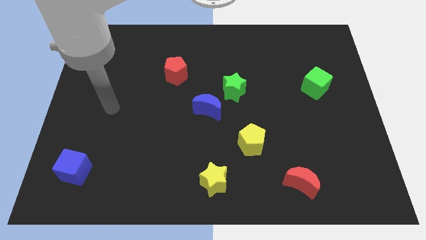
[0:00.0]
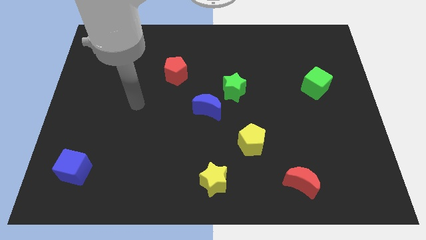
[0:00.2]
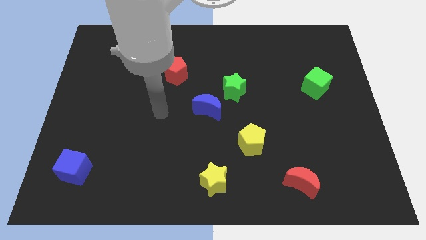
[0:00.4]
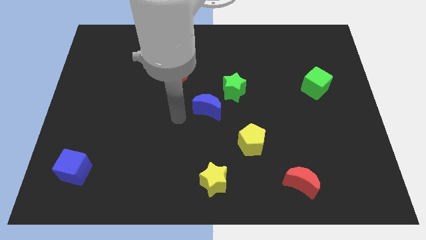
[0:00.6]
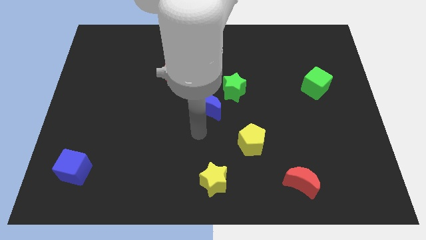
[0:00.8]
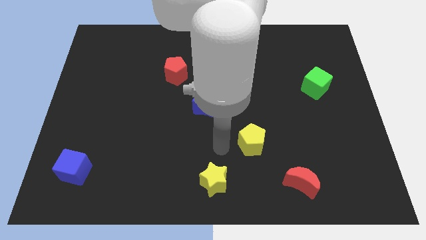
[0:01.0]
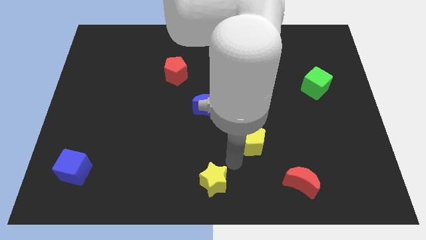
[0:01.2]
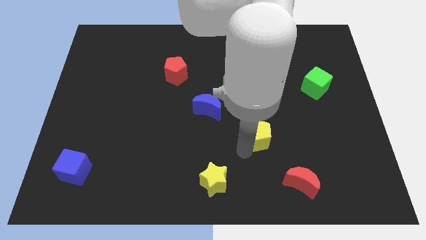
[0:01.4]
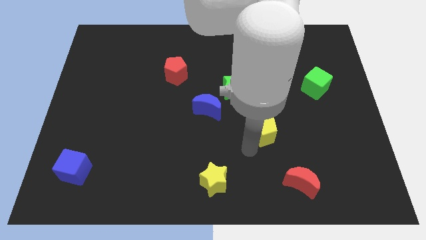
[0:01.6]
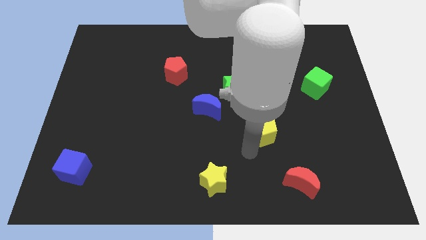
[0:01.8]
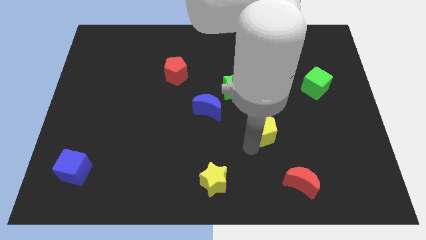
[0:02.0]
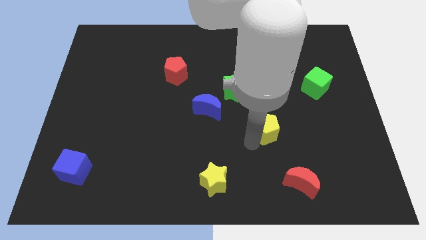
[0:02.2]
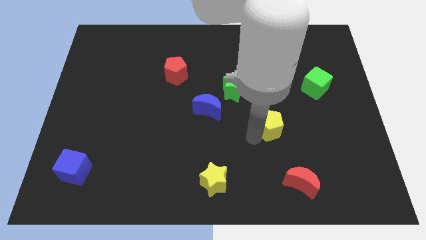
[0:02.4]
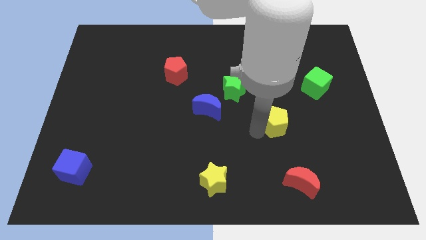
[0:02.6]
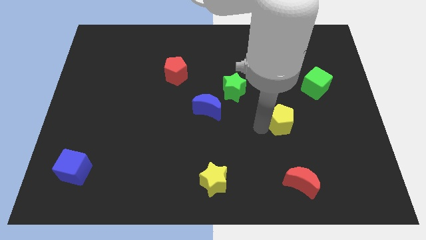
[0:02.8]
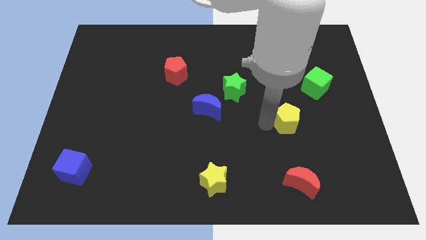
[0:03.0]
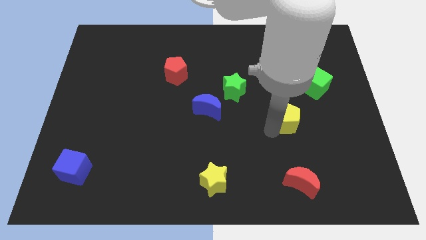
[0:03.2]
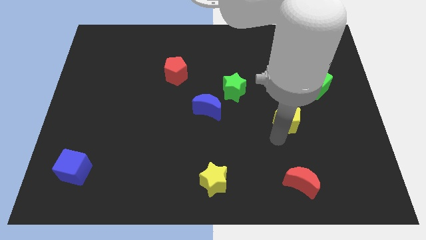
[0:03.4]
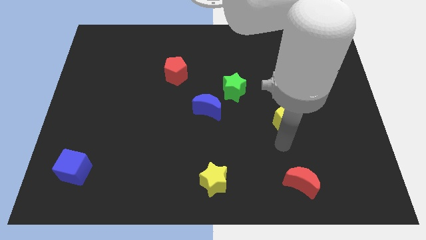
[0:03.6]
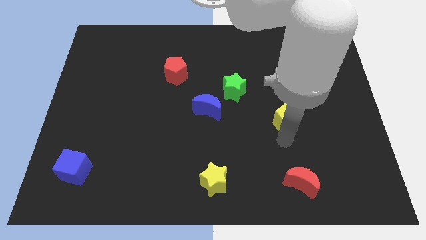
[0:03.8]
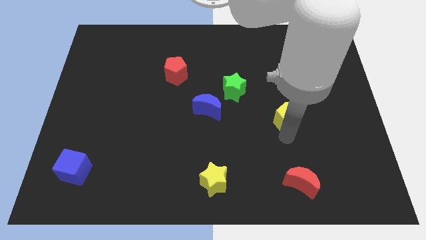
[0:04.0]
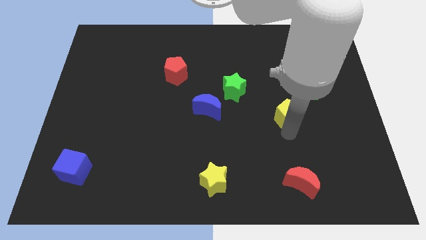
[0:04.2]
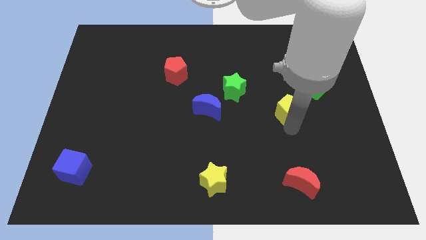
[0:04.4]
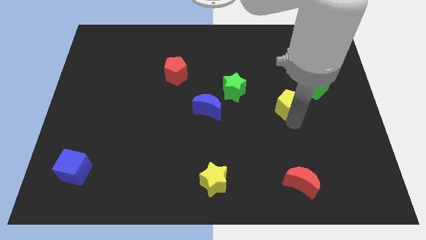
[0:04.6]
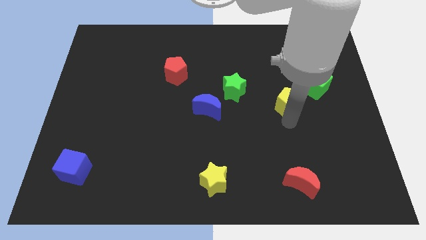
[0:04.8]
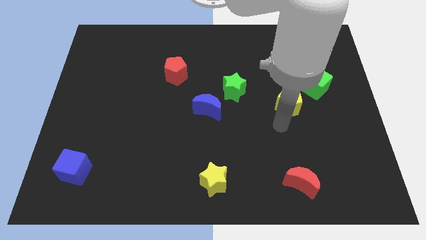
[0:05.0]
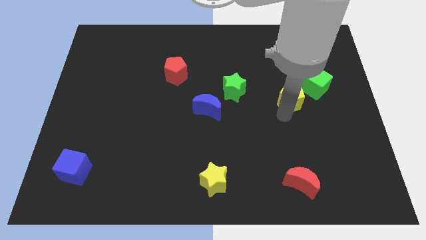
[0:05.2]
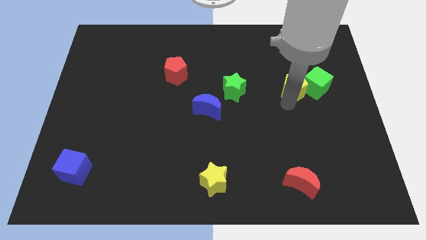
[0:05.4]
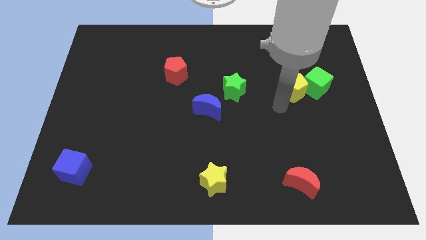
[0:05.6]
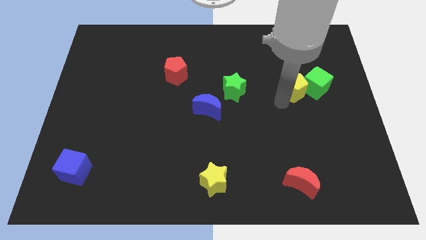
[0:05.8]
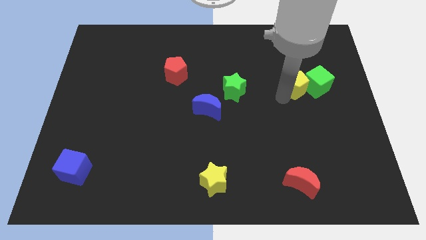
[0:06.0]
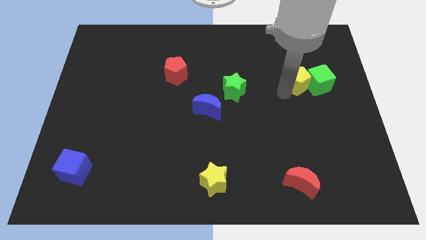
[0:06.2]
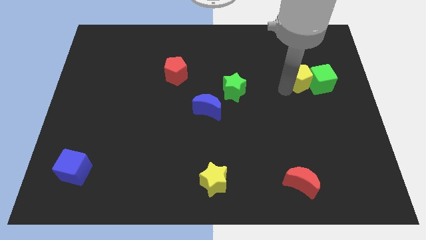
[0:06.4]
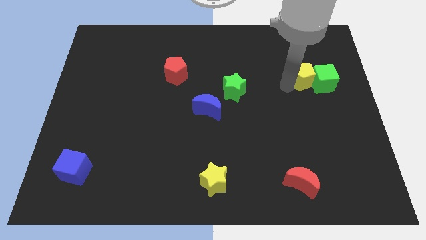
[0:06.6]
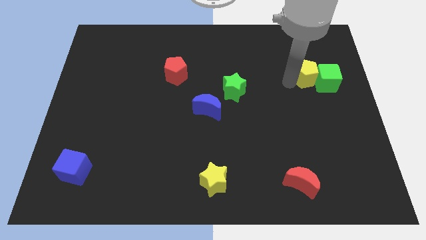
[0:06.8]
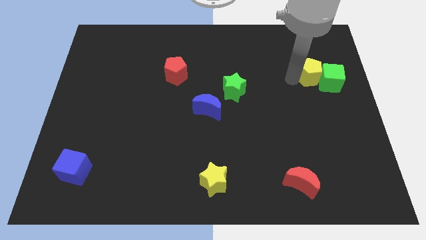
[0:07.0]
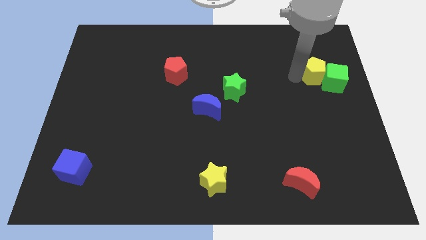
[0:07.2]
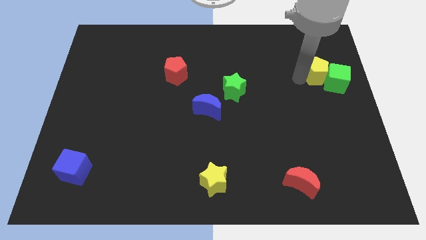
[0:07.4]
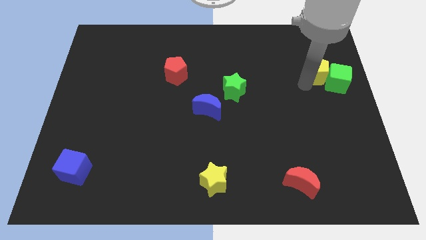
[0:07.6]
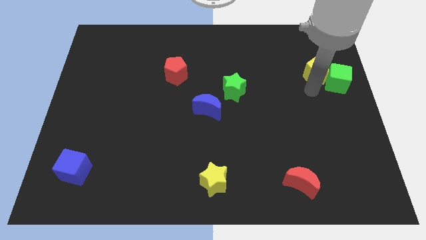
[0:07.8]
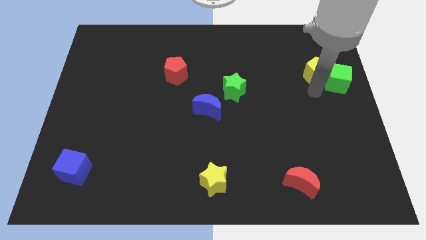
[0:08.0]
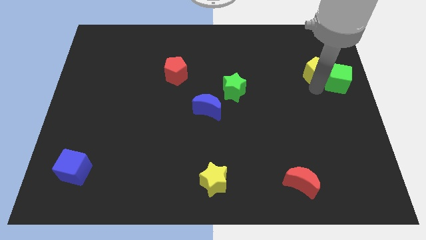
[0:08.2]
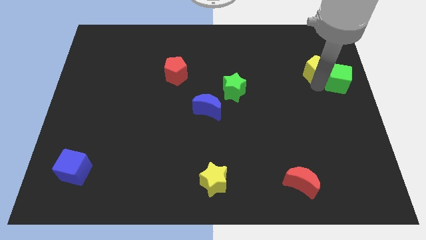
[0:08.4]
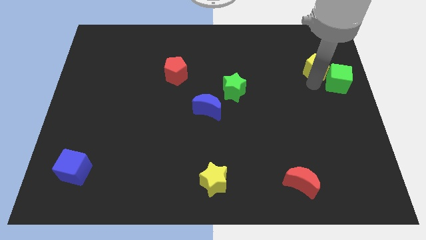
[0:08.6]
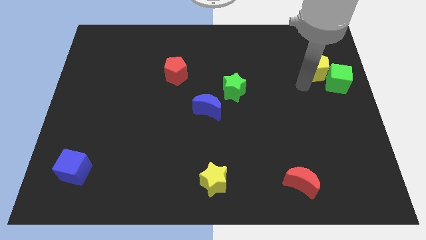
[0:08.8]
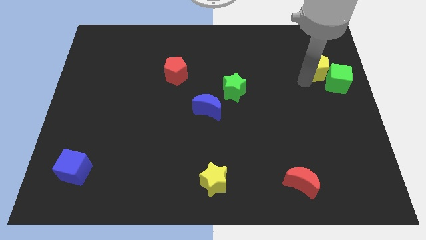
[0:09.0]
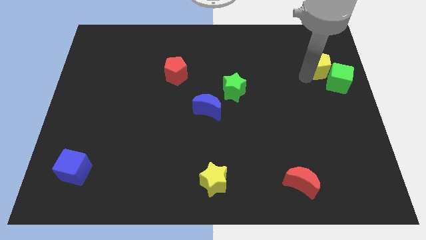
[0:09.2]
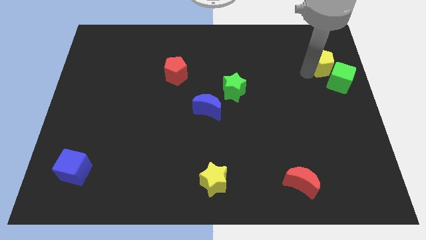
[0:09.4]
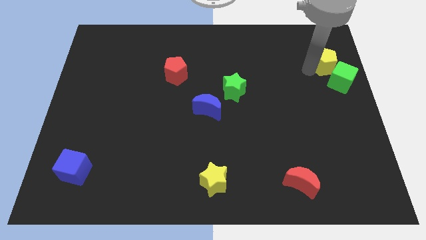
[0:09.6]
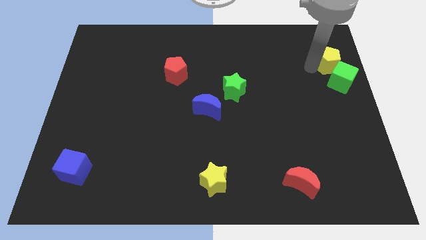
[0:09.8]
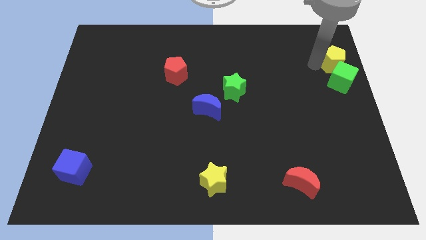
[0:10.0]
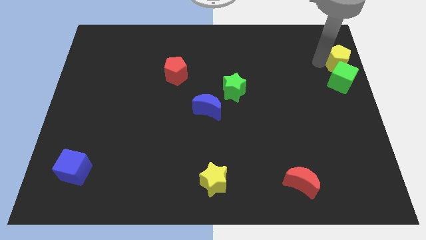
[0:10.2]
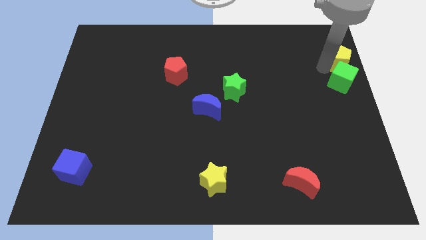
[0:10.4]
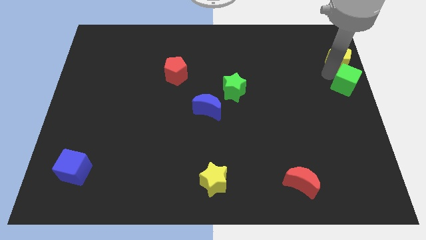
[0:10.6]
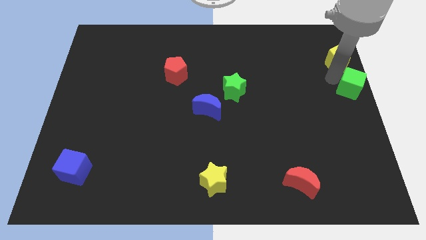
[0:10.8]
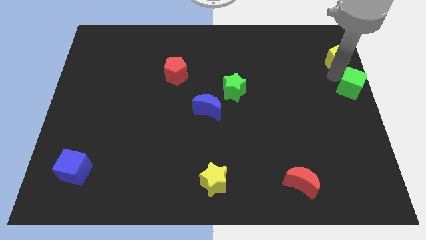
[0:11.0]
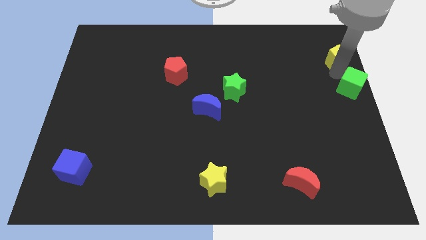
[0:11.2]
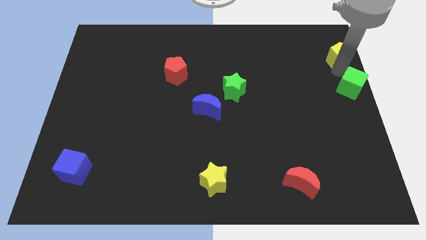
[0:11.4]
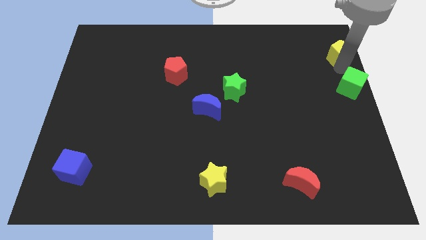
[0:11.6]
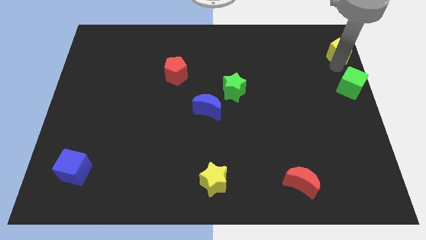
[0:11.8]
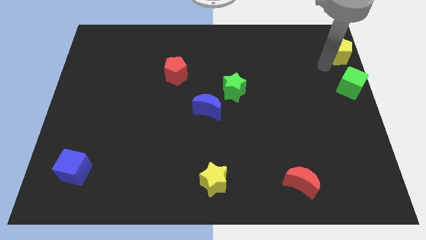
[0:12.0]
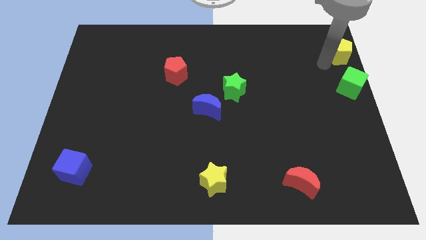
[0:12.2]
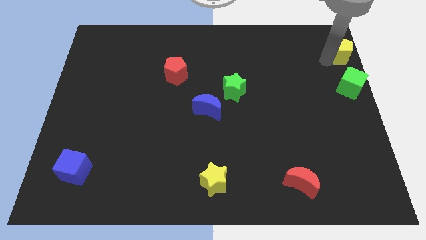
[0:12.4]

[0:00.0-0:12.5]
move the yellow pentagon to the top right of the board

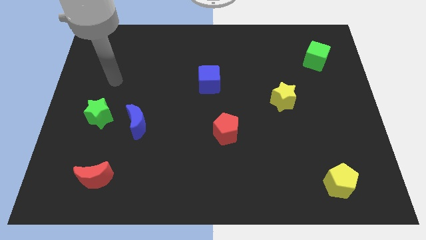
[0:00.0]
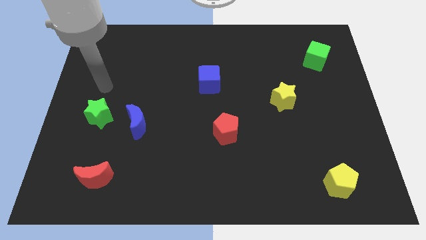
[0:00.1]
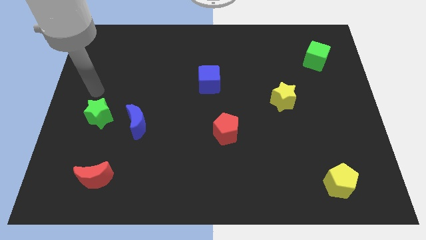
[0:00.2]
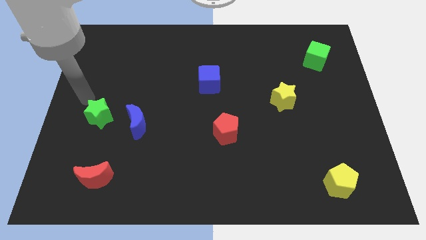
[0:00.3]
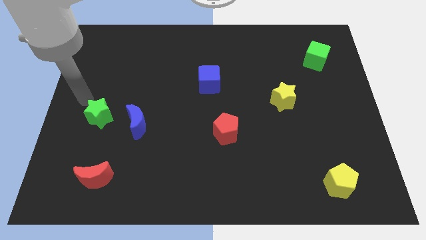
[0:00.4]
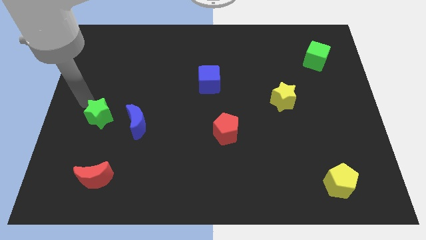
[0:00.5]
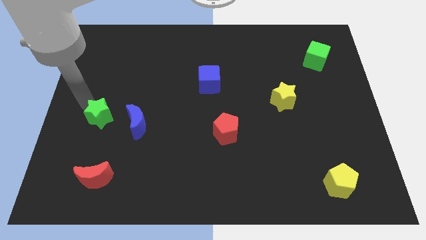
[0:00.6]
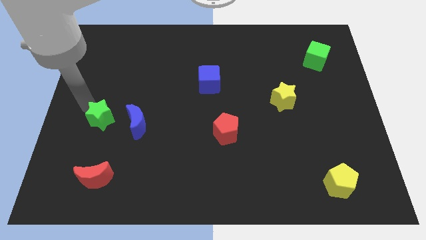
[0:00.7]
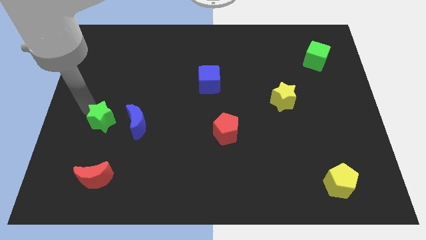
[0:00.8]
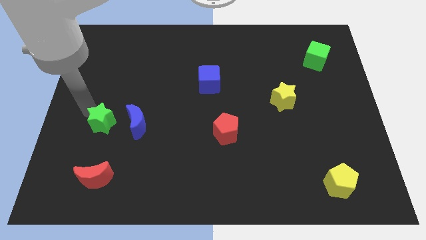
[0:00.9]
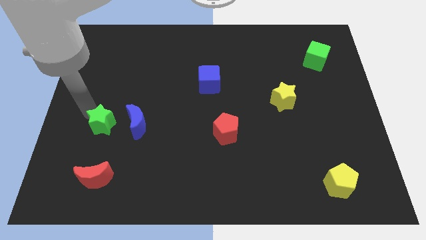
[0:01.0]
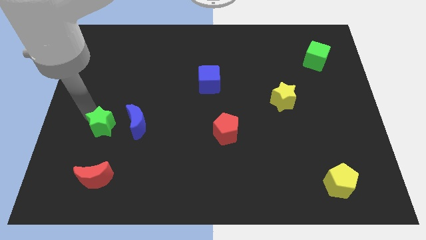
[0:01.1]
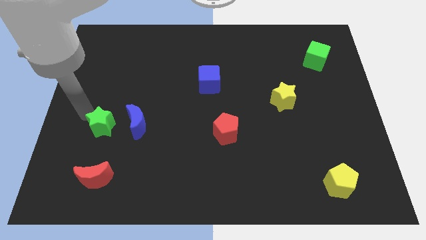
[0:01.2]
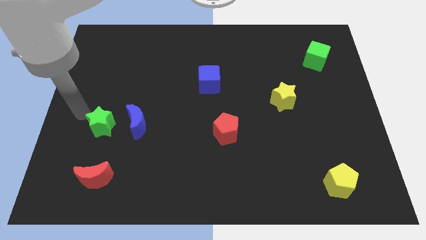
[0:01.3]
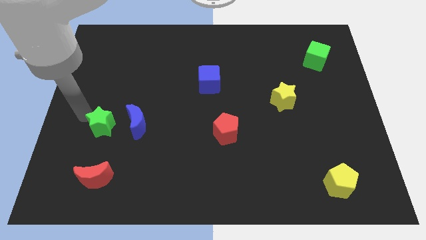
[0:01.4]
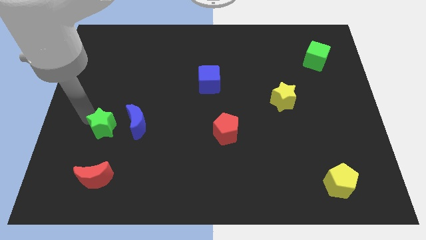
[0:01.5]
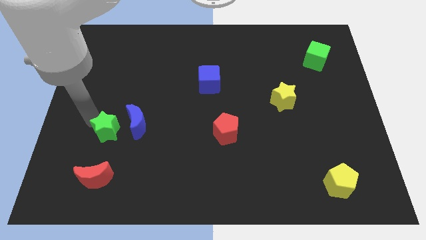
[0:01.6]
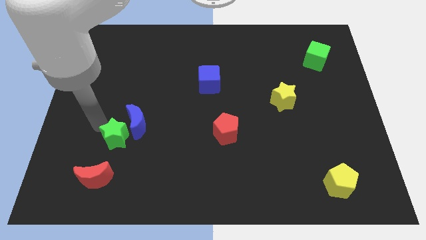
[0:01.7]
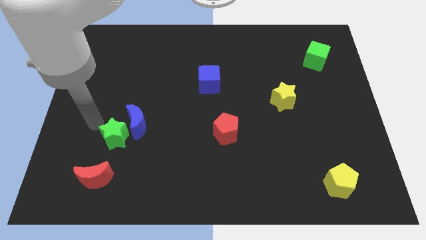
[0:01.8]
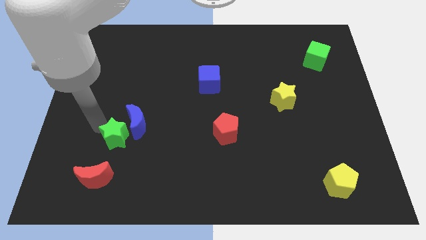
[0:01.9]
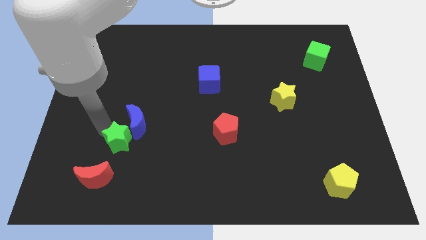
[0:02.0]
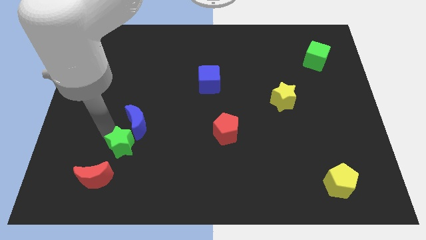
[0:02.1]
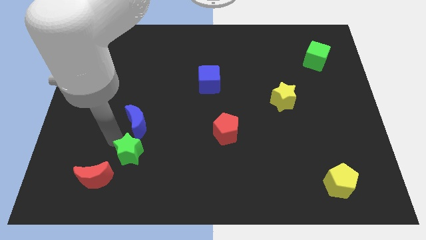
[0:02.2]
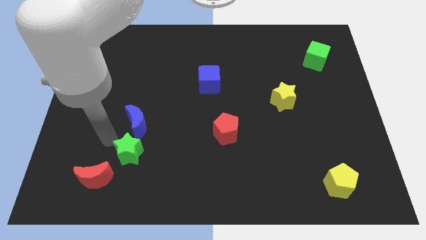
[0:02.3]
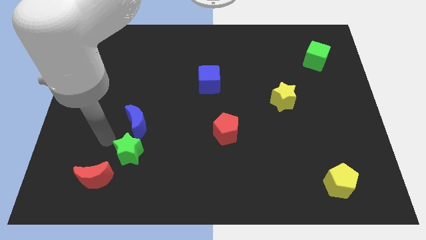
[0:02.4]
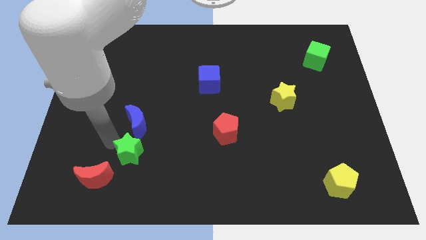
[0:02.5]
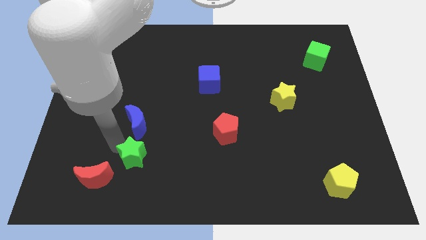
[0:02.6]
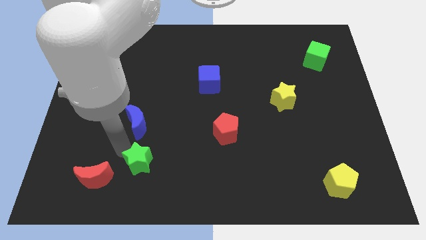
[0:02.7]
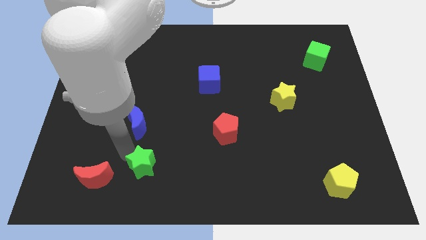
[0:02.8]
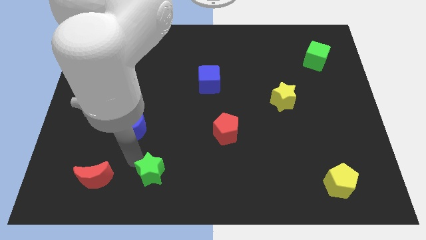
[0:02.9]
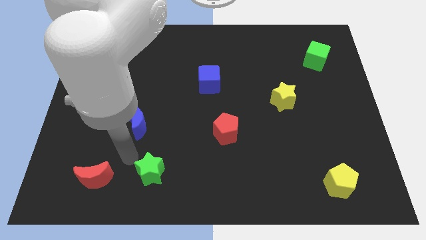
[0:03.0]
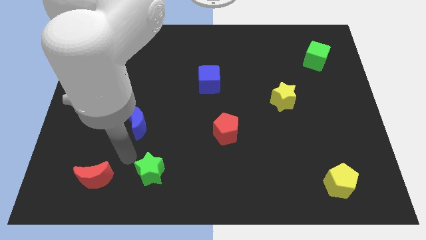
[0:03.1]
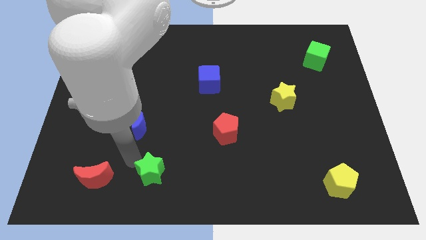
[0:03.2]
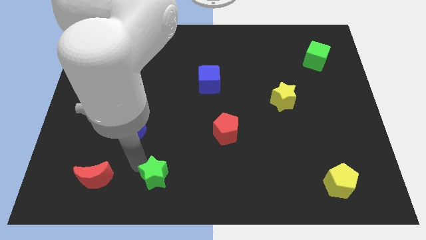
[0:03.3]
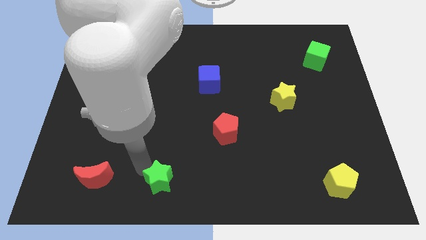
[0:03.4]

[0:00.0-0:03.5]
push the green star to the bottom
